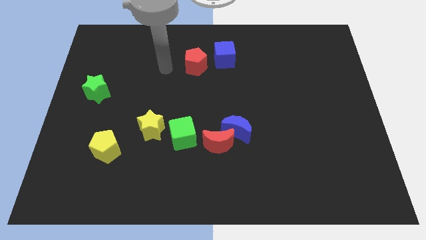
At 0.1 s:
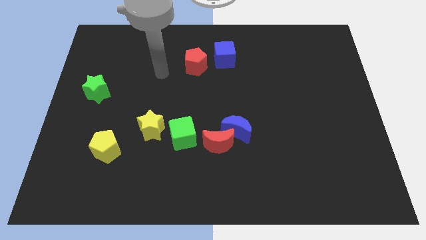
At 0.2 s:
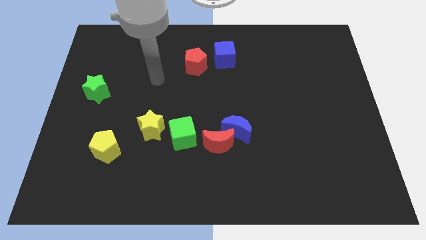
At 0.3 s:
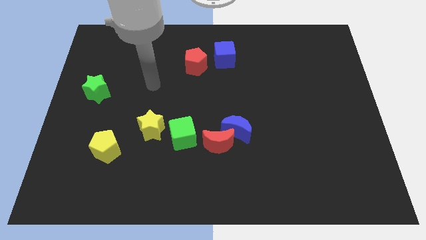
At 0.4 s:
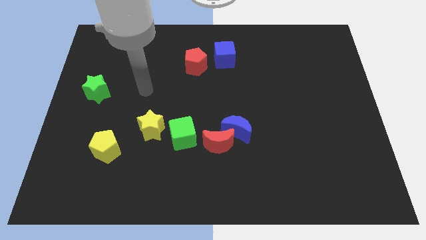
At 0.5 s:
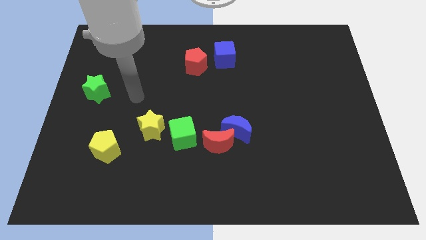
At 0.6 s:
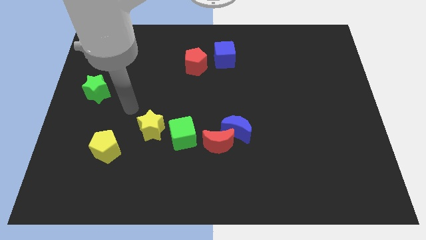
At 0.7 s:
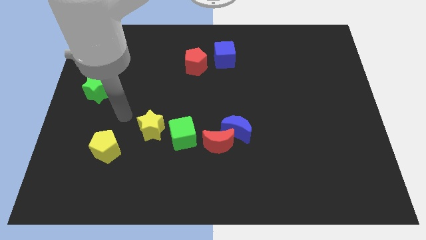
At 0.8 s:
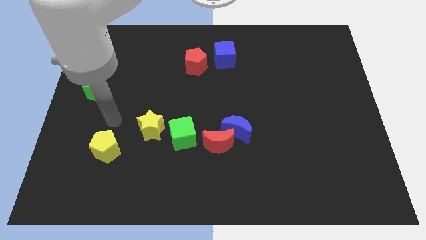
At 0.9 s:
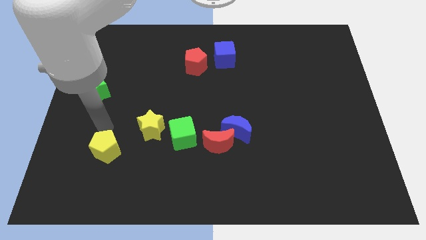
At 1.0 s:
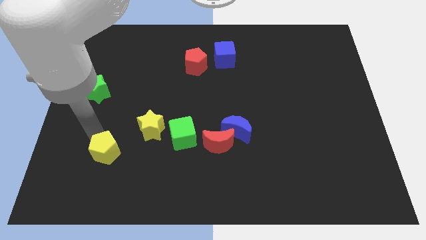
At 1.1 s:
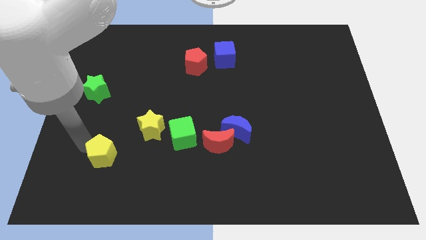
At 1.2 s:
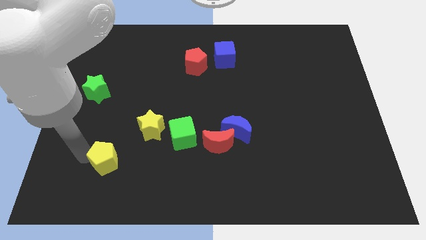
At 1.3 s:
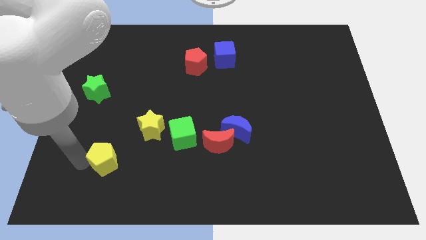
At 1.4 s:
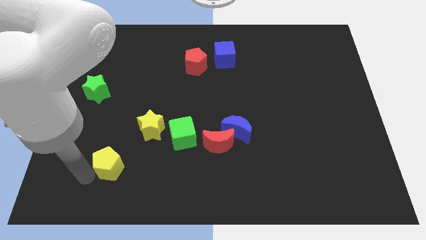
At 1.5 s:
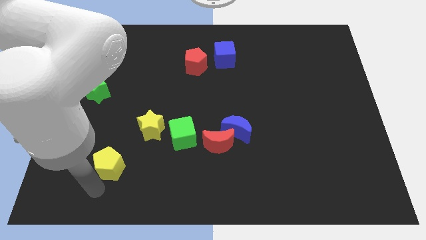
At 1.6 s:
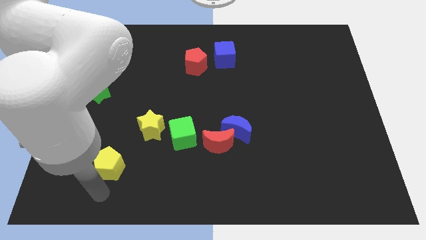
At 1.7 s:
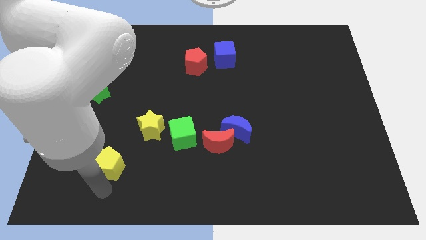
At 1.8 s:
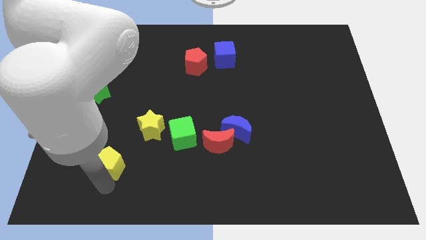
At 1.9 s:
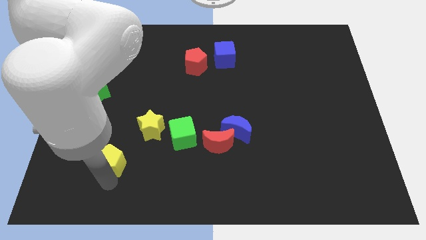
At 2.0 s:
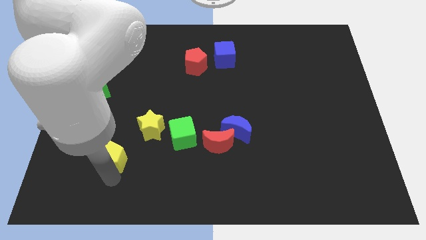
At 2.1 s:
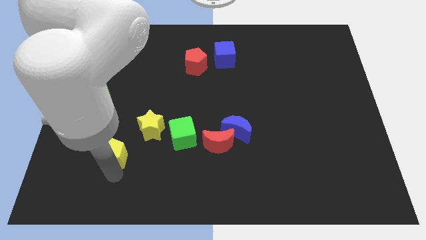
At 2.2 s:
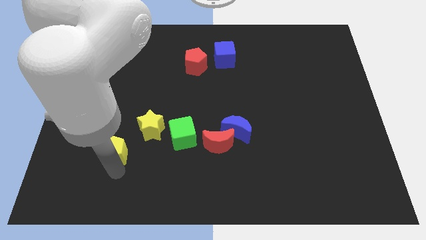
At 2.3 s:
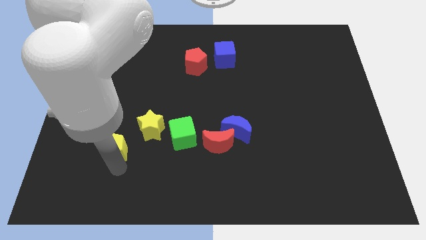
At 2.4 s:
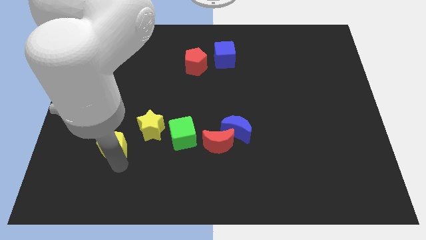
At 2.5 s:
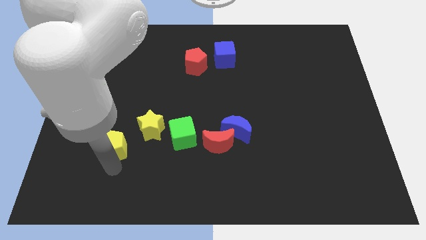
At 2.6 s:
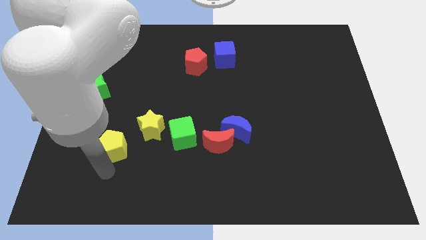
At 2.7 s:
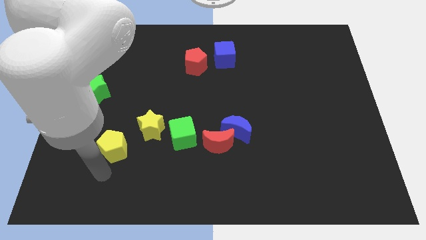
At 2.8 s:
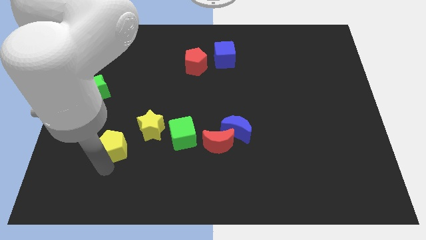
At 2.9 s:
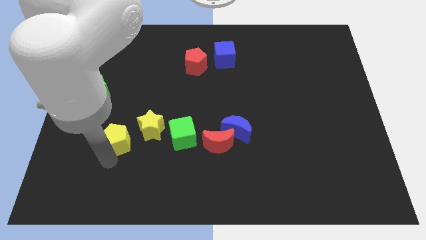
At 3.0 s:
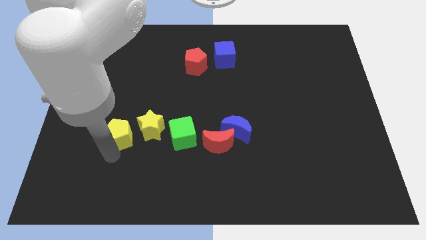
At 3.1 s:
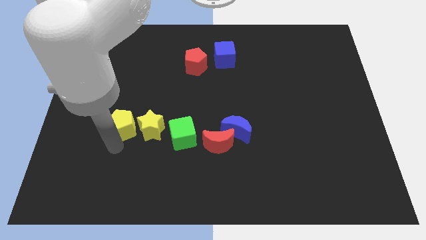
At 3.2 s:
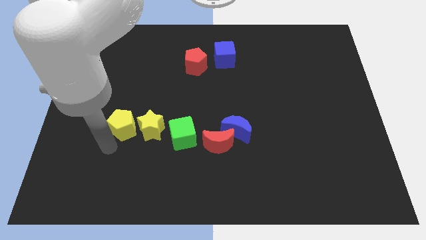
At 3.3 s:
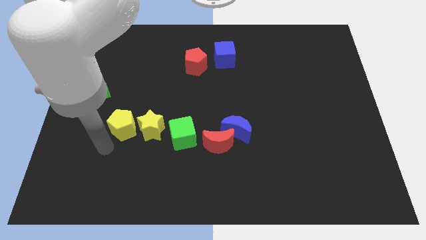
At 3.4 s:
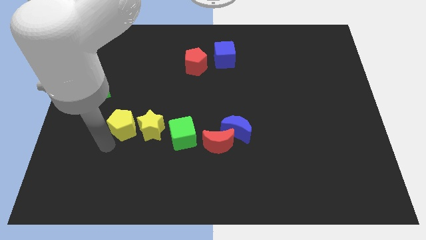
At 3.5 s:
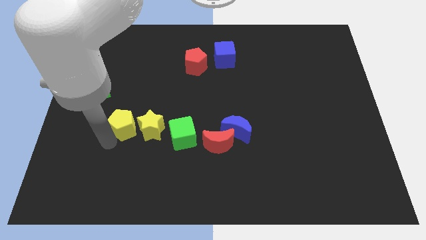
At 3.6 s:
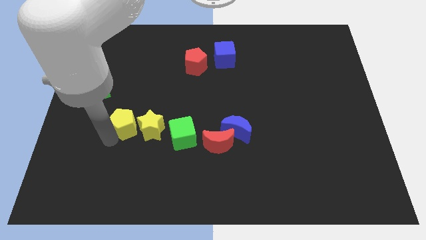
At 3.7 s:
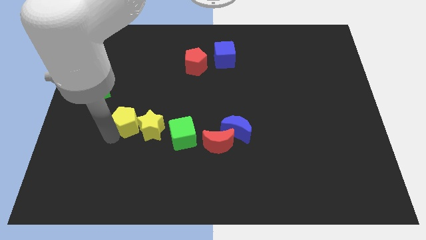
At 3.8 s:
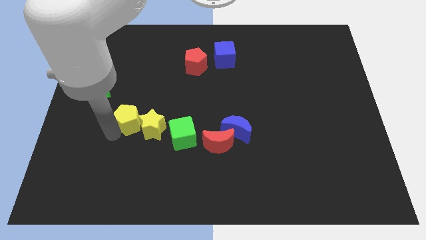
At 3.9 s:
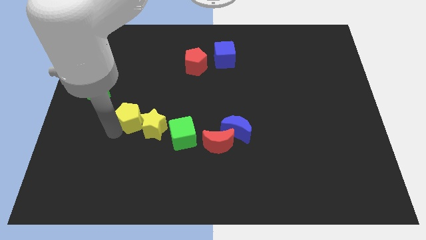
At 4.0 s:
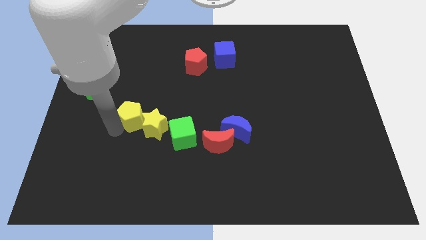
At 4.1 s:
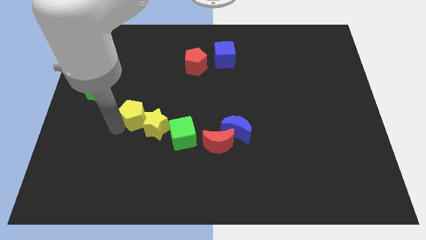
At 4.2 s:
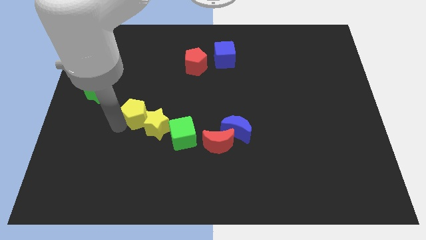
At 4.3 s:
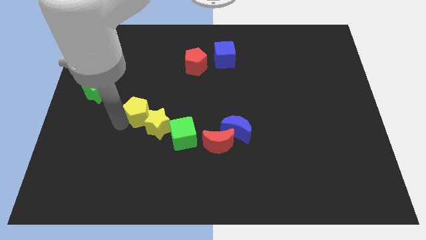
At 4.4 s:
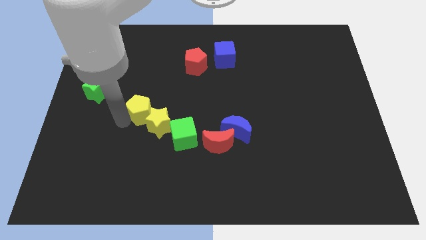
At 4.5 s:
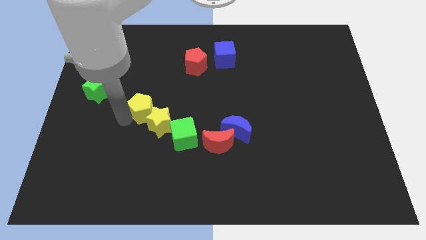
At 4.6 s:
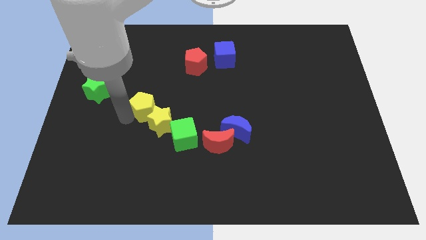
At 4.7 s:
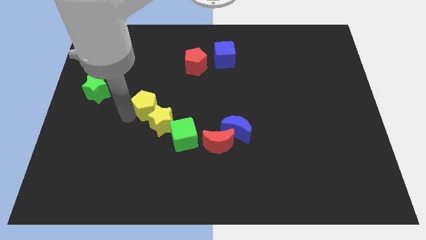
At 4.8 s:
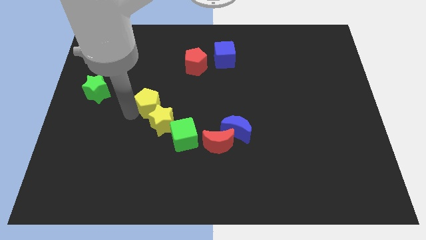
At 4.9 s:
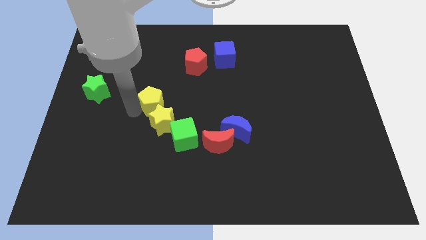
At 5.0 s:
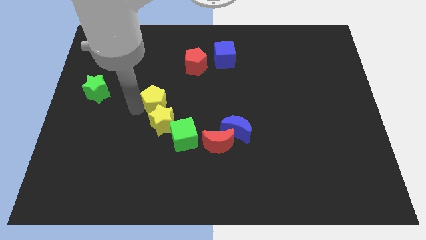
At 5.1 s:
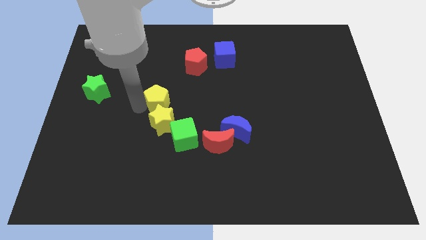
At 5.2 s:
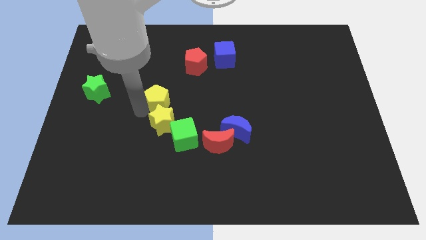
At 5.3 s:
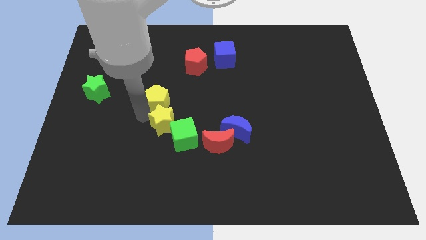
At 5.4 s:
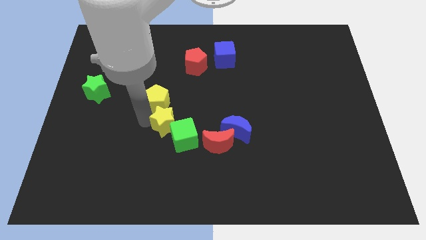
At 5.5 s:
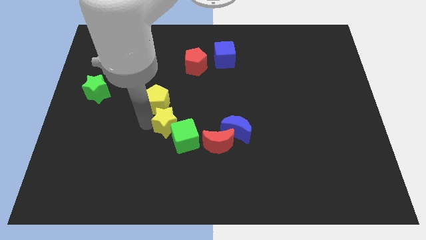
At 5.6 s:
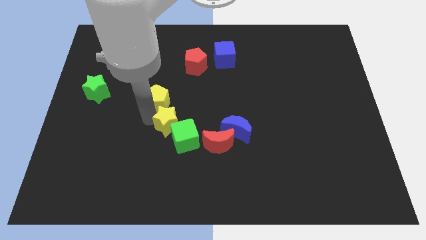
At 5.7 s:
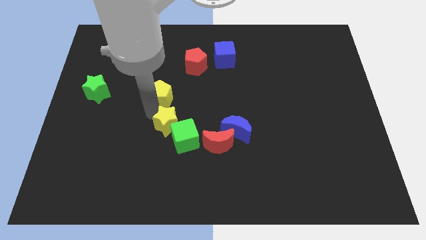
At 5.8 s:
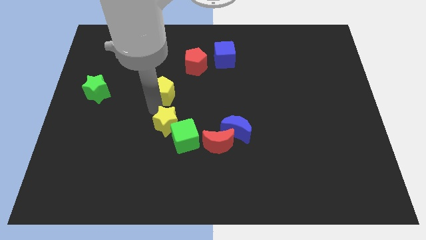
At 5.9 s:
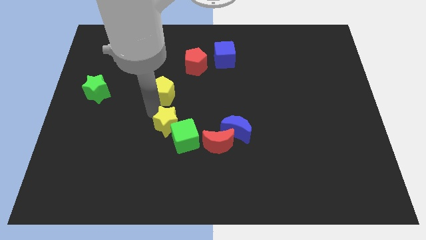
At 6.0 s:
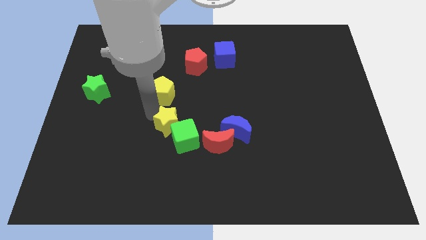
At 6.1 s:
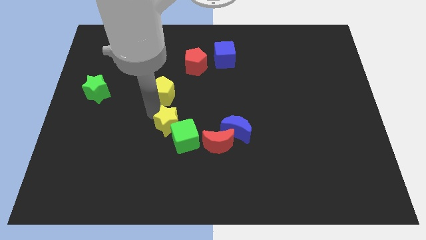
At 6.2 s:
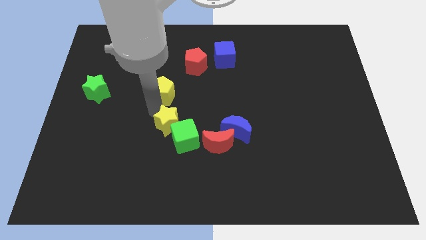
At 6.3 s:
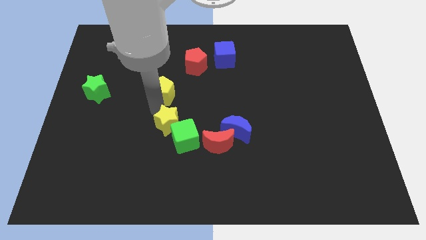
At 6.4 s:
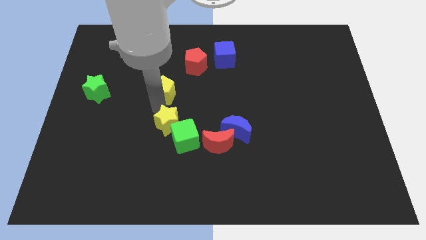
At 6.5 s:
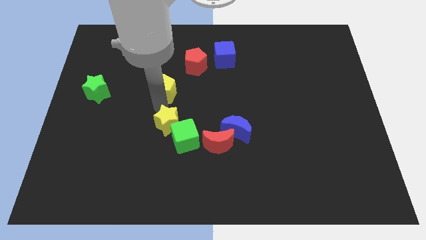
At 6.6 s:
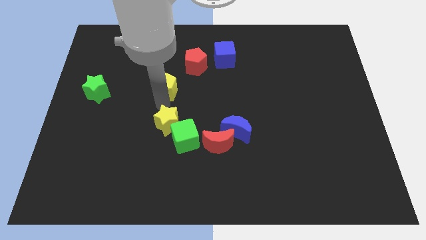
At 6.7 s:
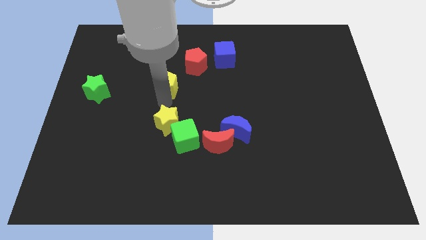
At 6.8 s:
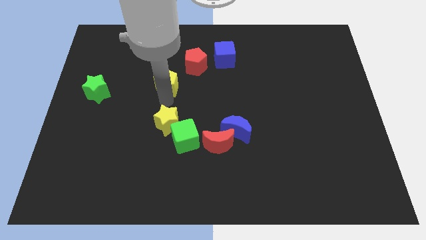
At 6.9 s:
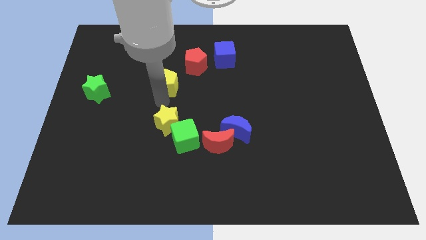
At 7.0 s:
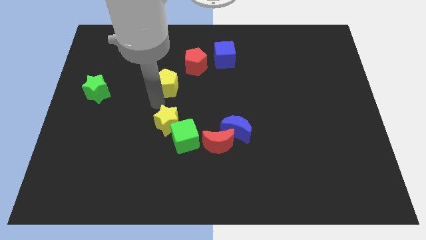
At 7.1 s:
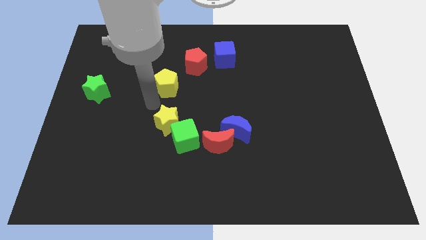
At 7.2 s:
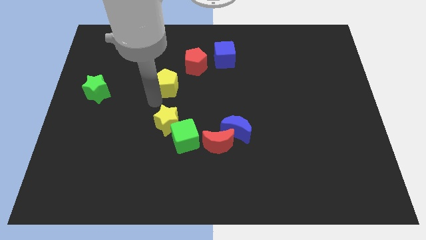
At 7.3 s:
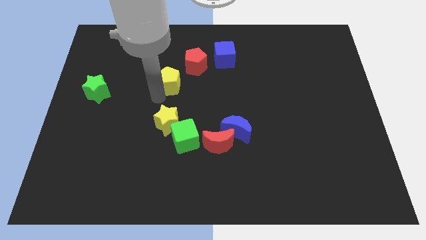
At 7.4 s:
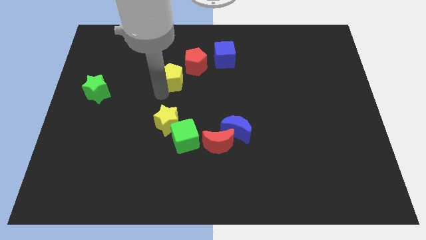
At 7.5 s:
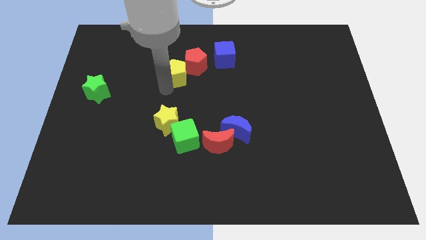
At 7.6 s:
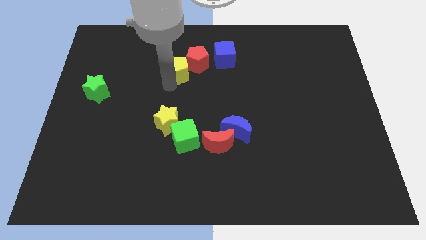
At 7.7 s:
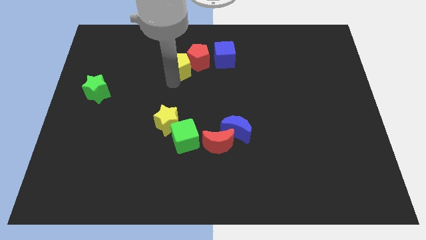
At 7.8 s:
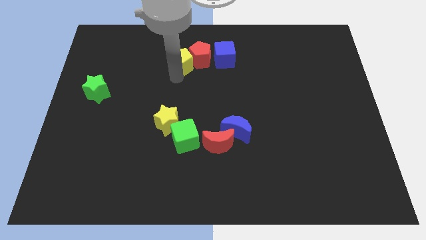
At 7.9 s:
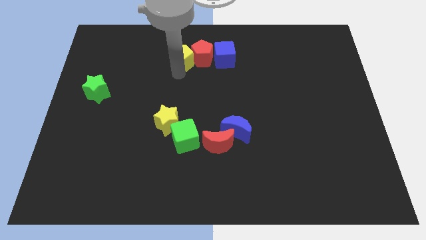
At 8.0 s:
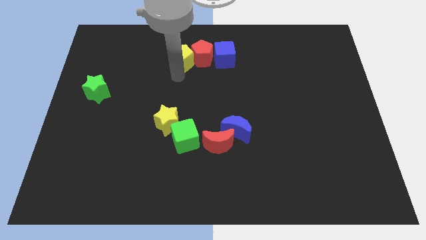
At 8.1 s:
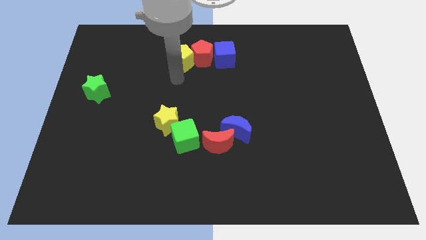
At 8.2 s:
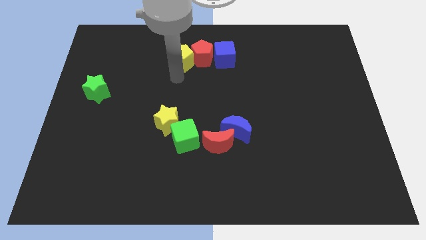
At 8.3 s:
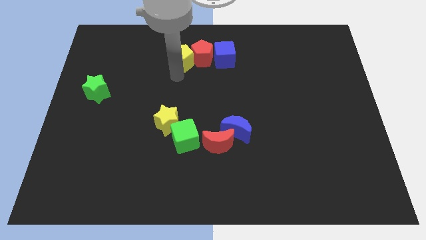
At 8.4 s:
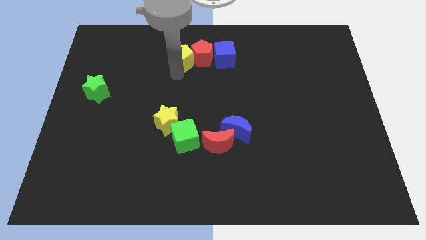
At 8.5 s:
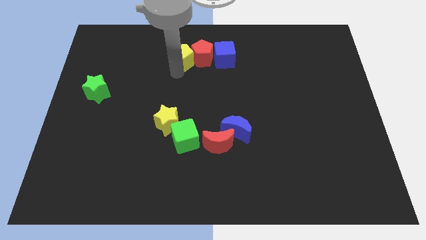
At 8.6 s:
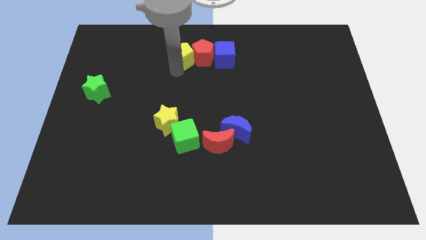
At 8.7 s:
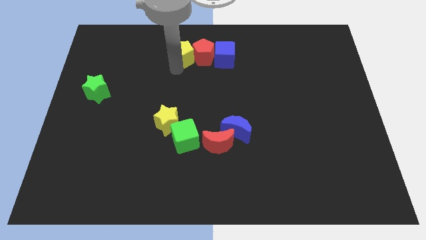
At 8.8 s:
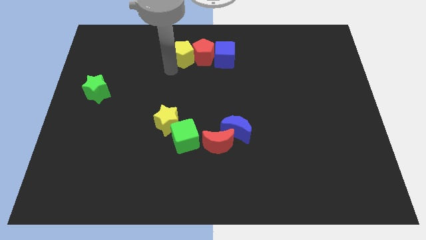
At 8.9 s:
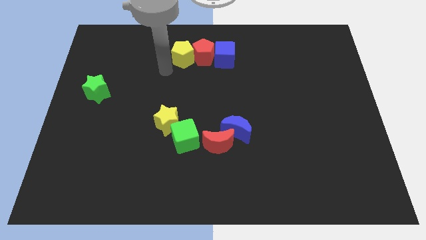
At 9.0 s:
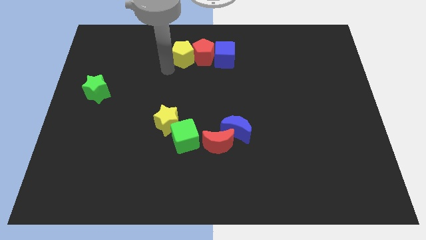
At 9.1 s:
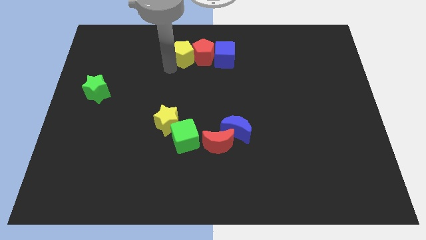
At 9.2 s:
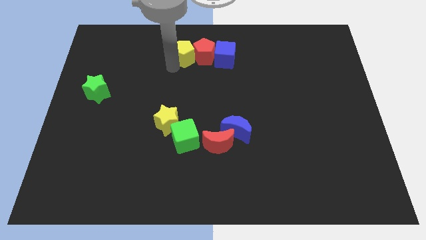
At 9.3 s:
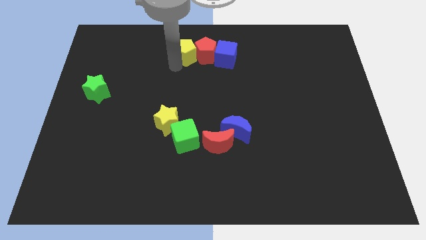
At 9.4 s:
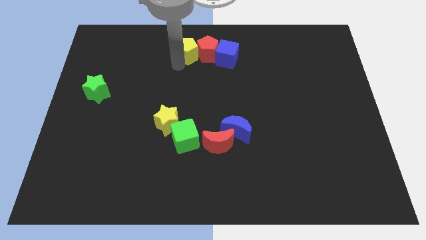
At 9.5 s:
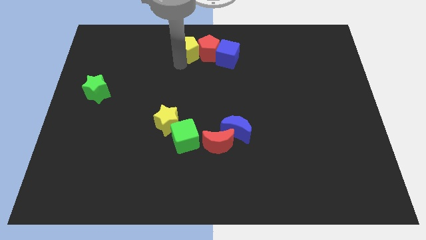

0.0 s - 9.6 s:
slide the yellow pentagon to the top side
